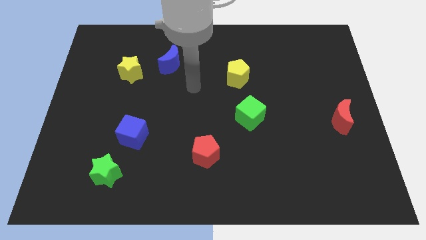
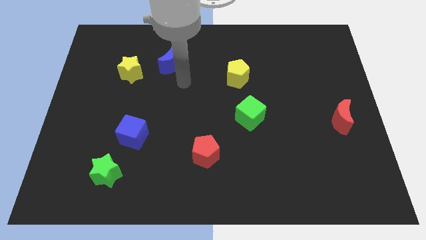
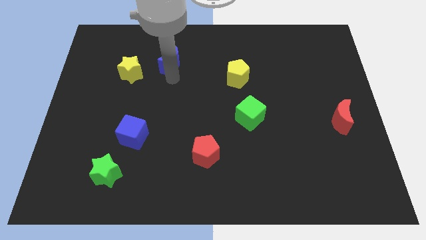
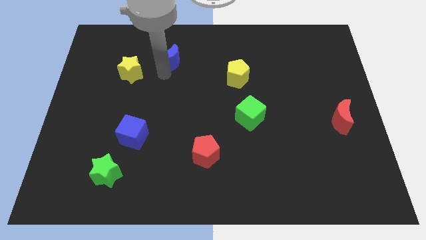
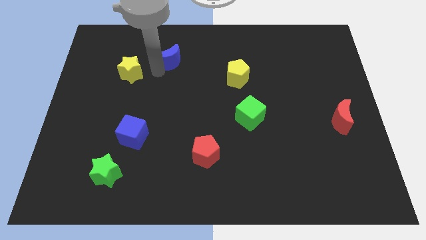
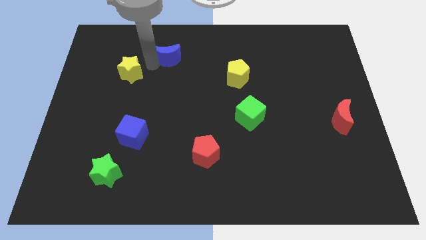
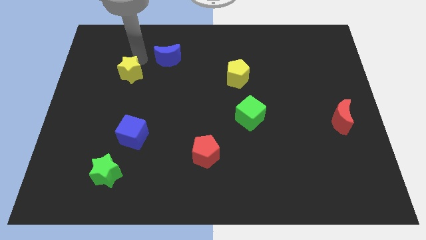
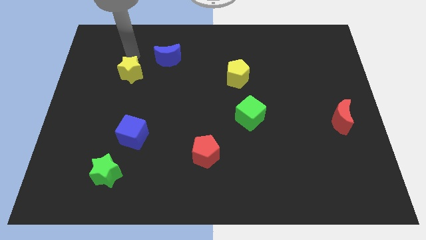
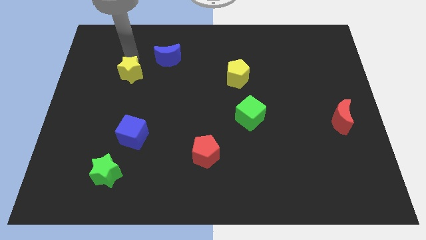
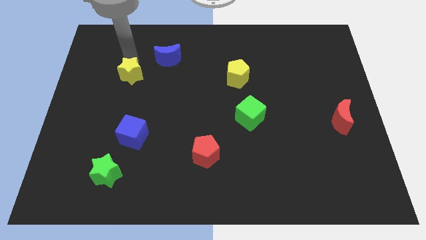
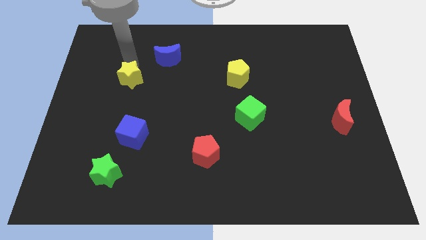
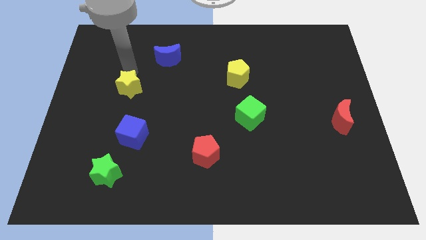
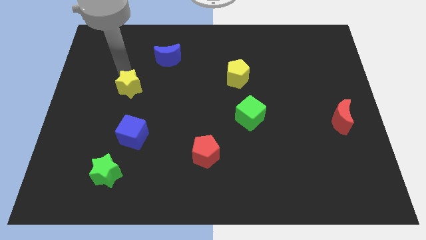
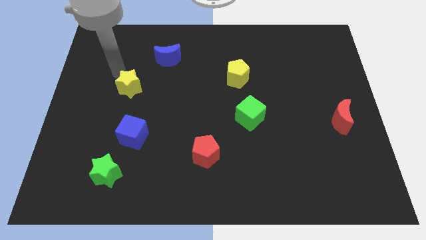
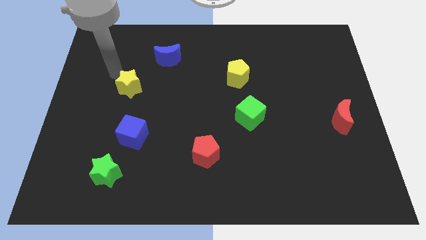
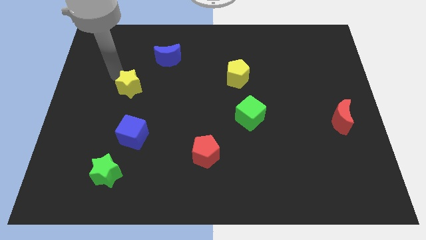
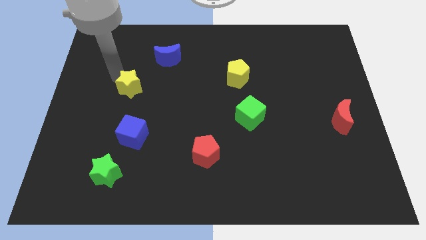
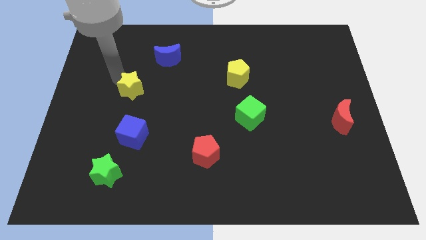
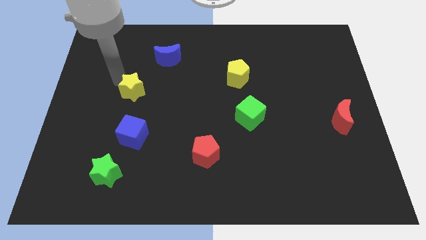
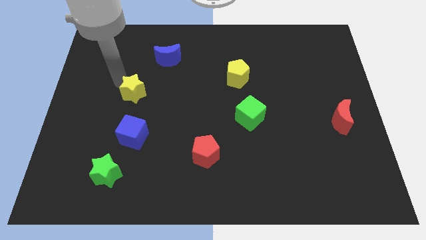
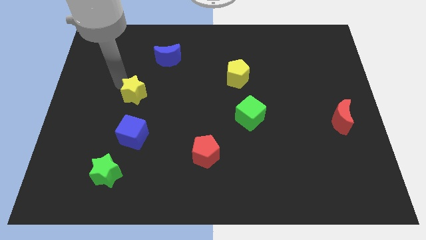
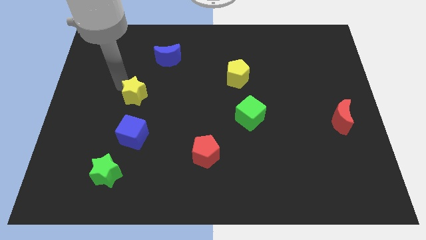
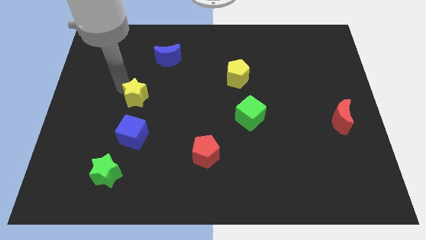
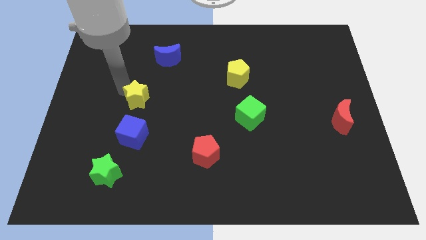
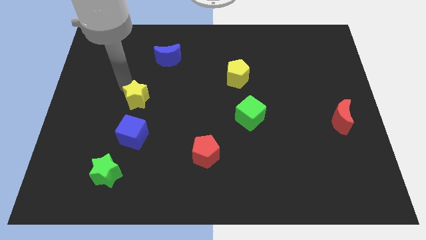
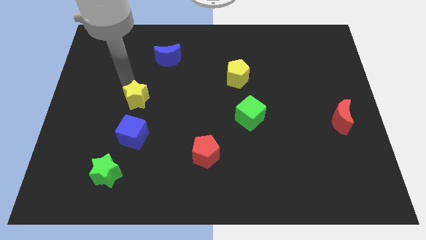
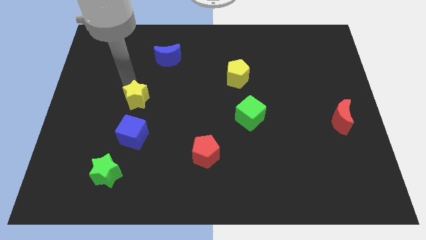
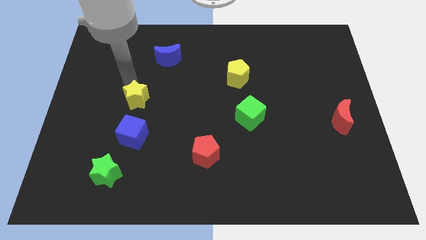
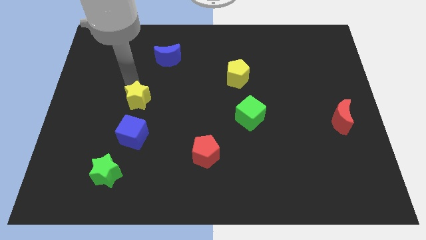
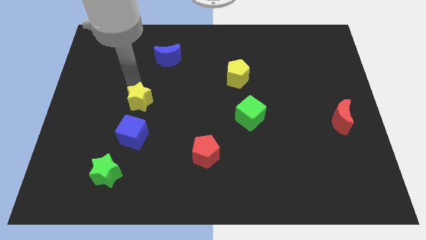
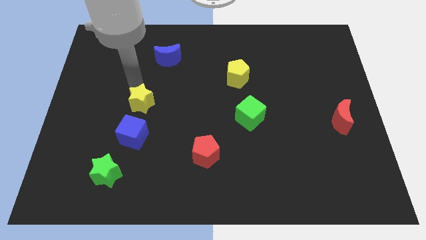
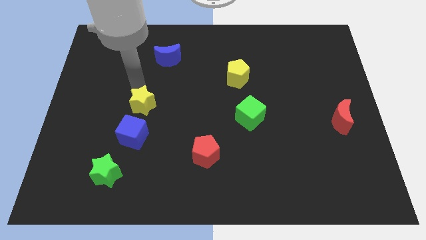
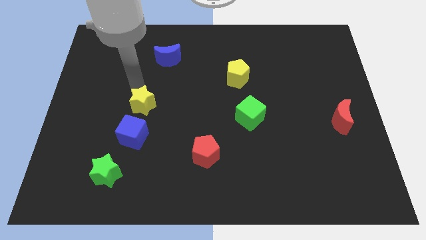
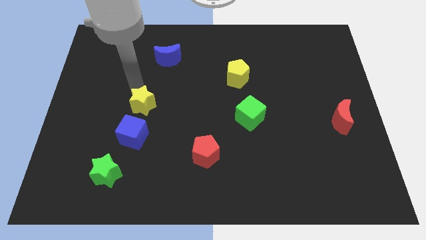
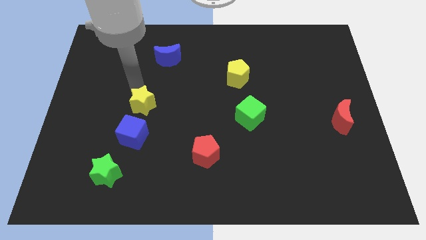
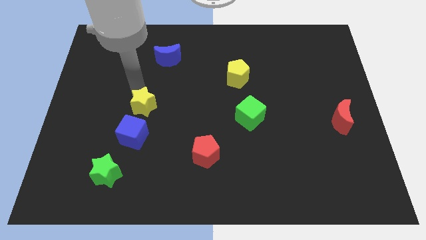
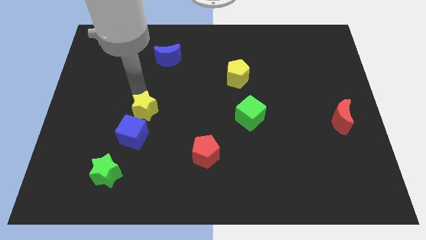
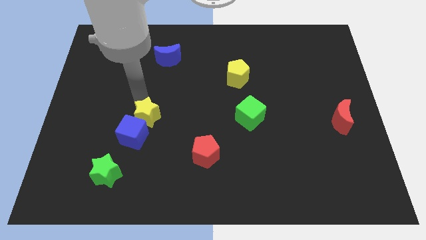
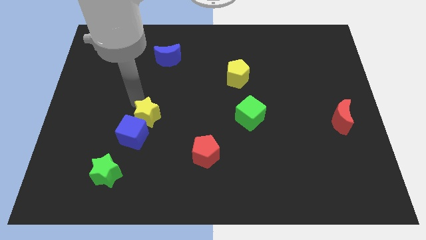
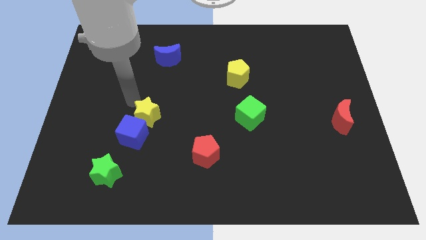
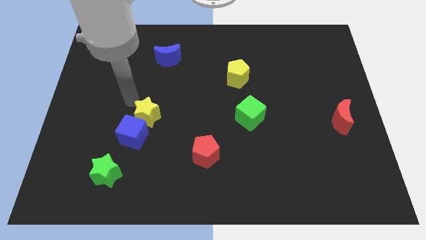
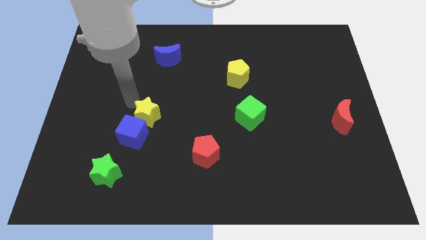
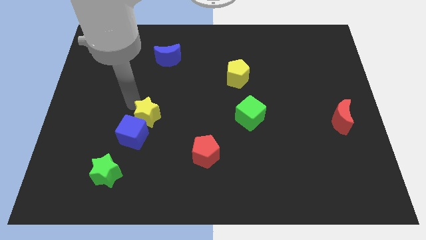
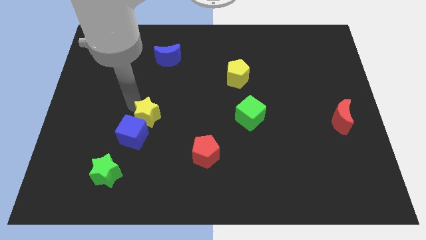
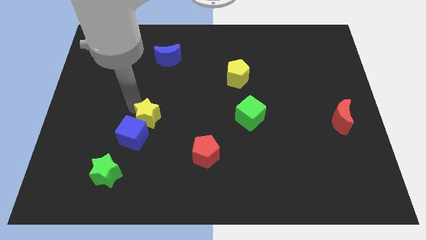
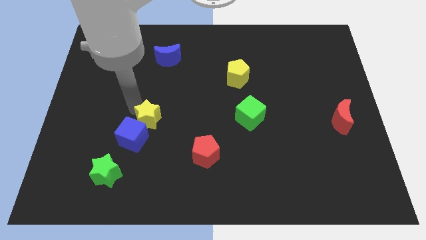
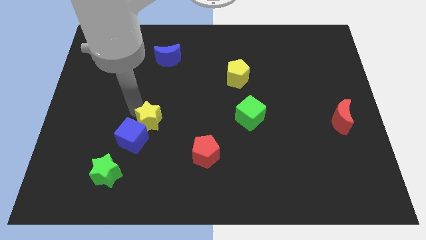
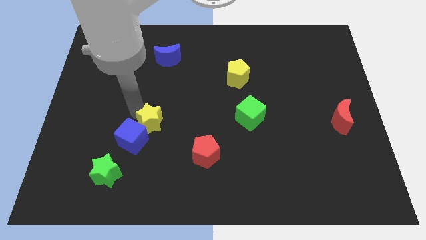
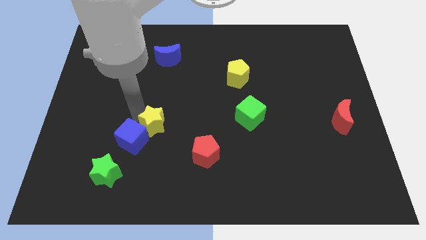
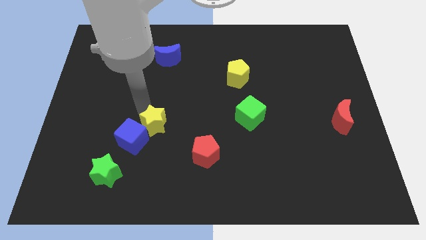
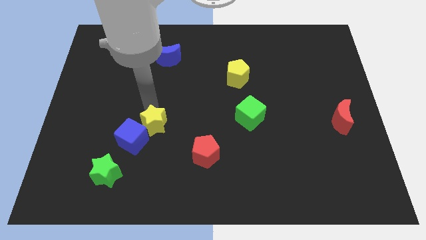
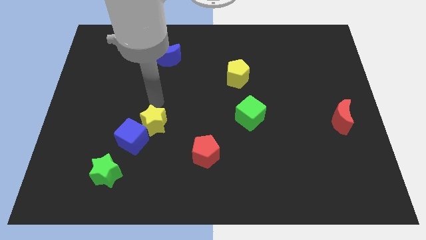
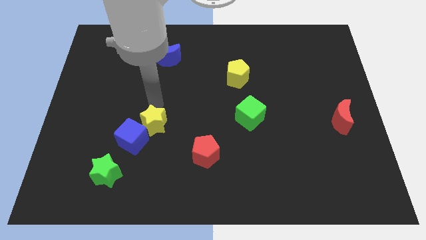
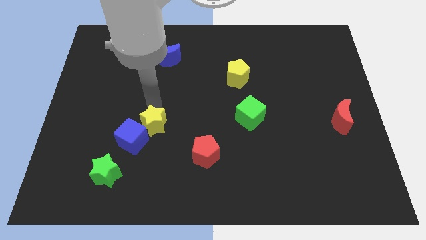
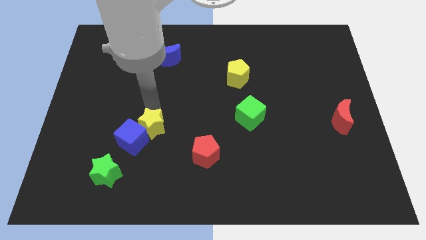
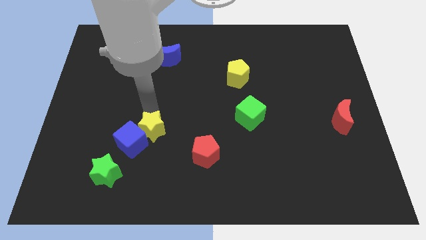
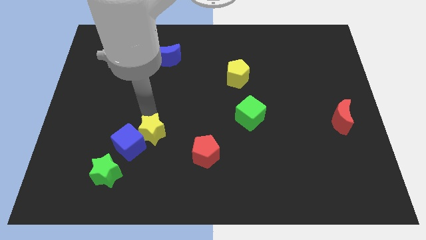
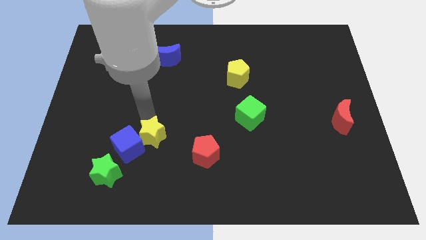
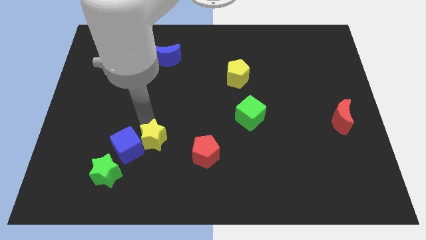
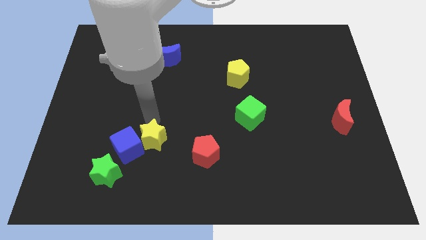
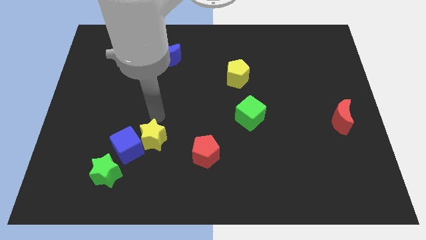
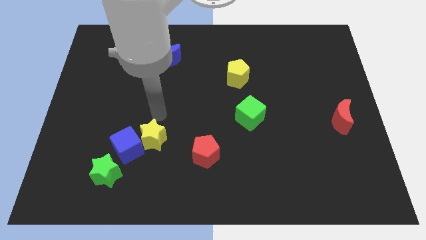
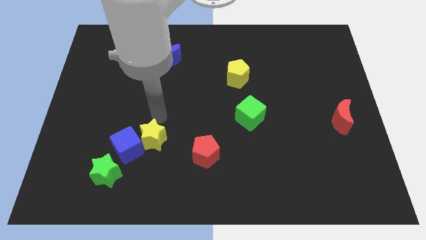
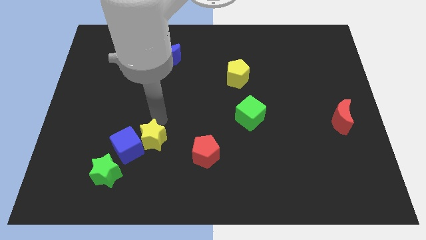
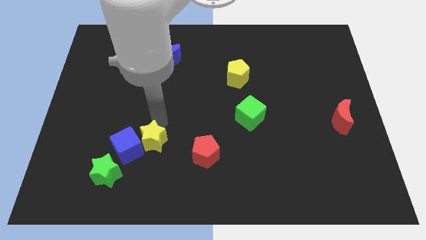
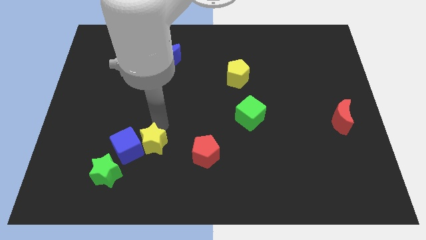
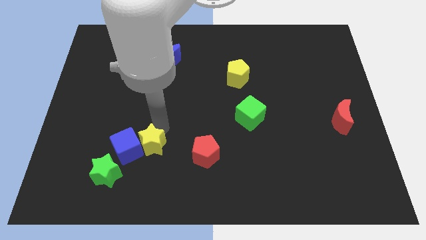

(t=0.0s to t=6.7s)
move the yellow star diagonally down and to the right of the blue cube

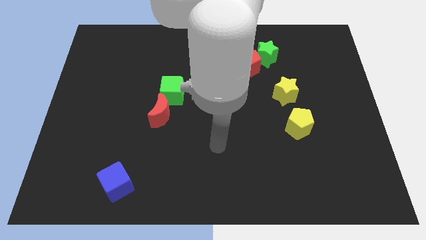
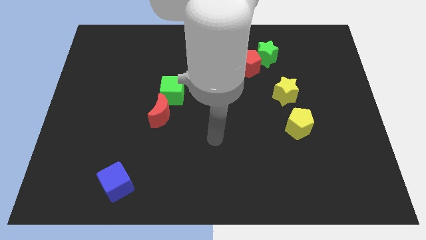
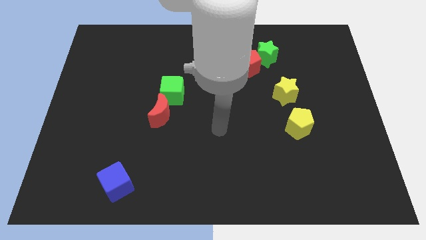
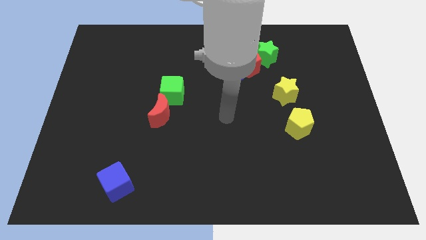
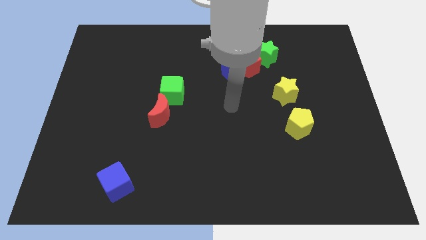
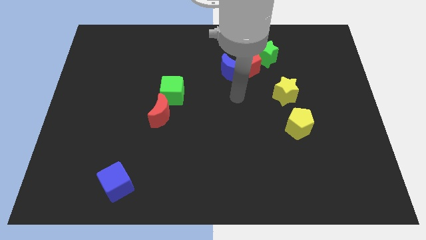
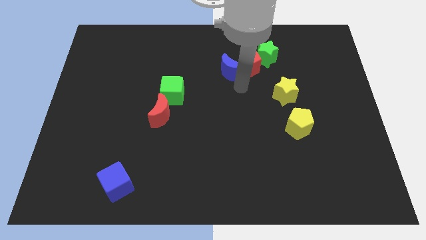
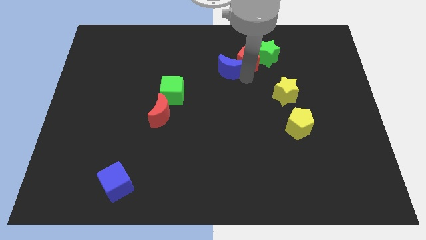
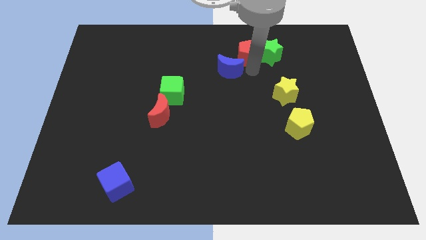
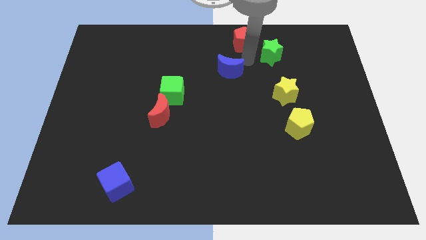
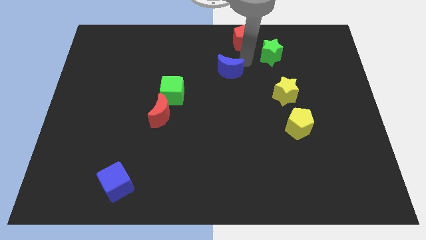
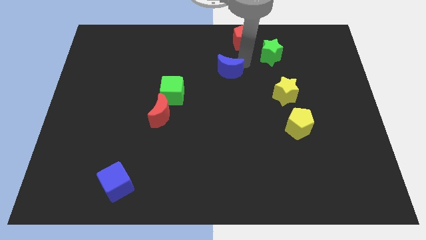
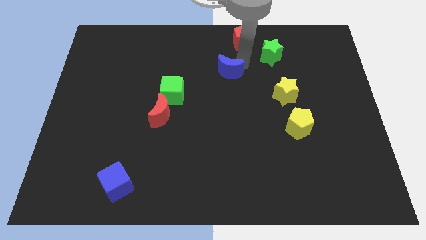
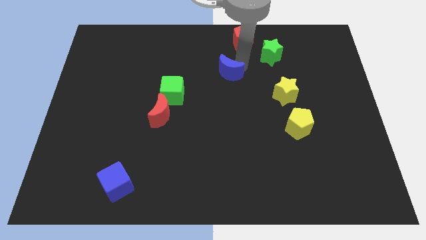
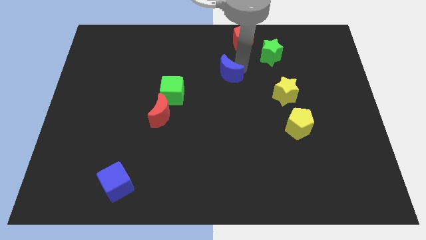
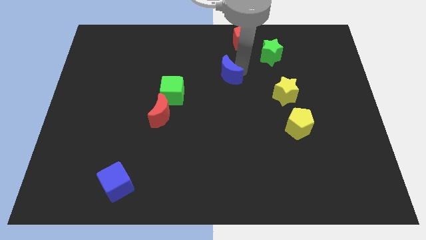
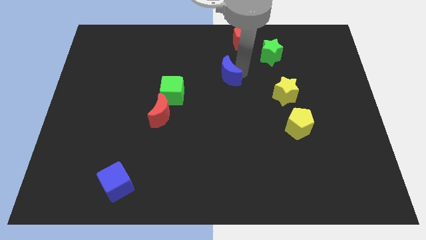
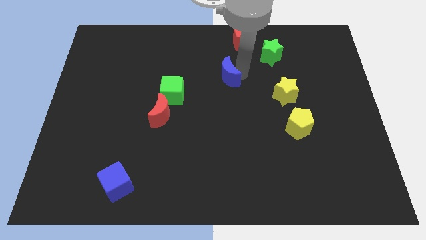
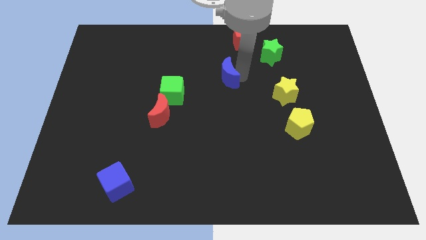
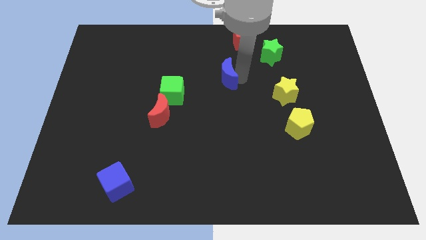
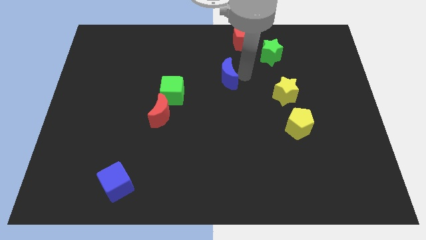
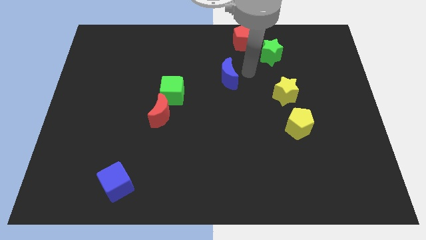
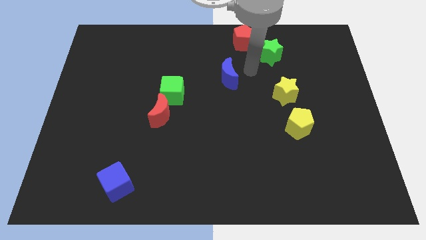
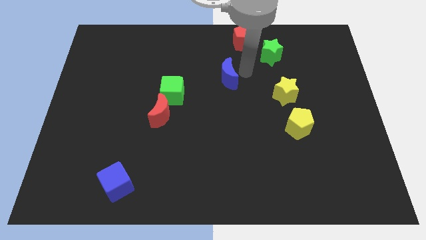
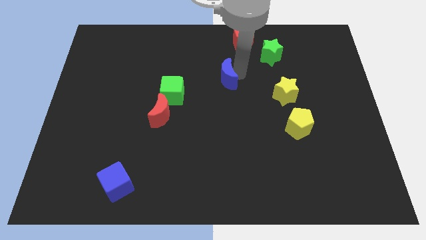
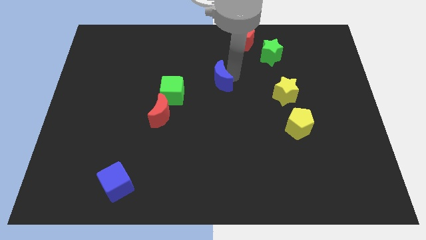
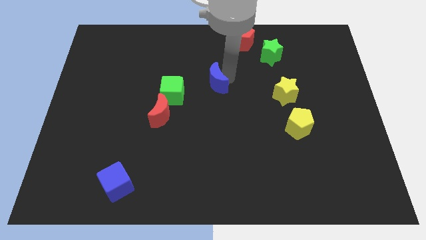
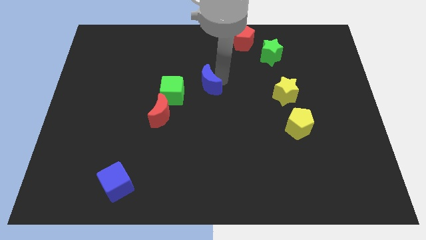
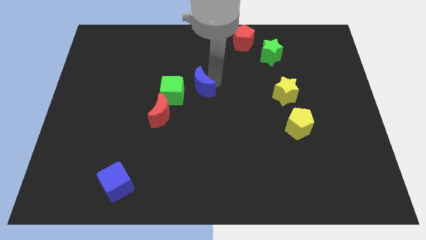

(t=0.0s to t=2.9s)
move the blue moon diagonally up and to the right of the red moon
